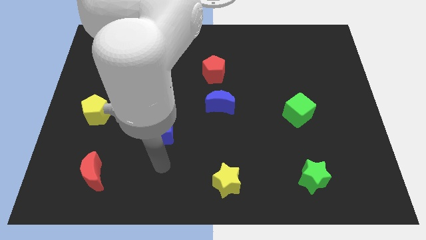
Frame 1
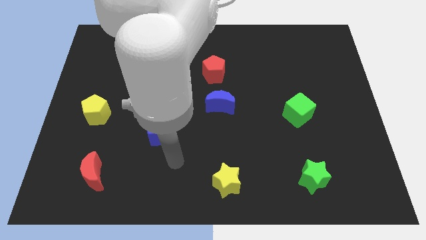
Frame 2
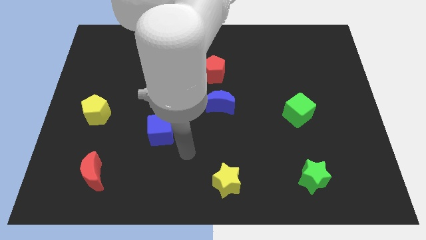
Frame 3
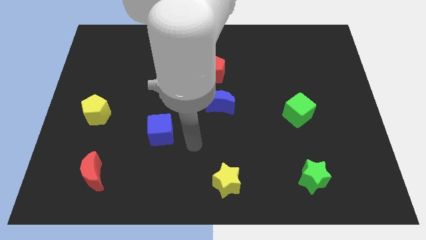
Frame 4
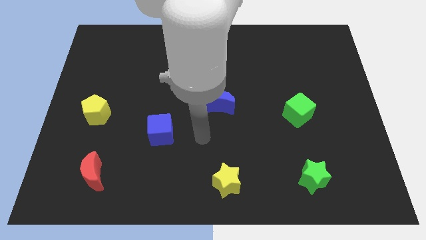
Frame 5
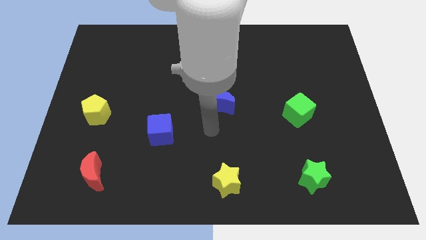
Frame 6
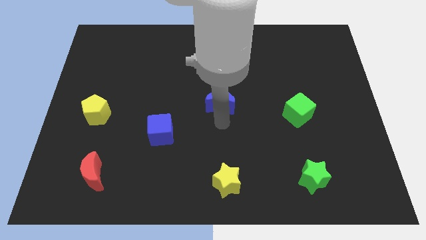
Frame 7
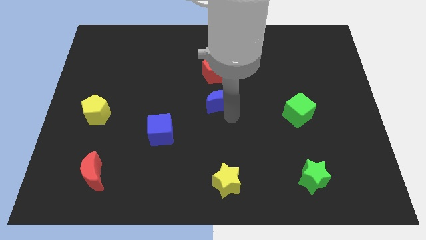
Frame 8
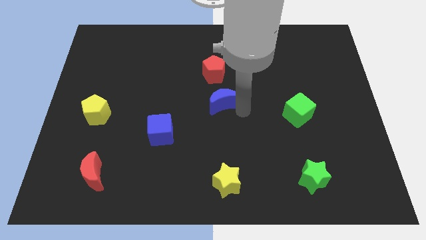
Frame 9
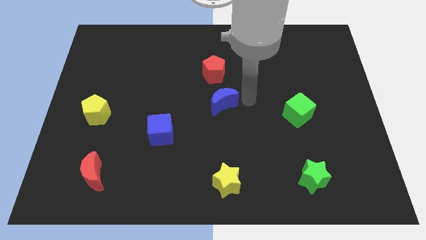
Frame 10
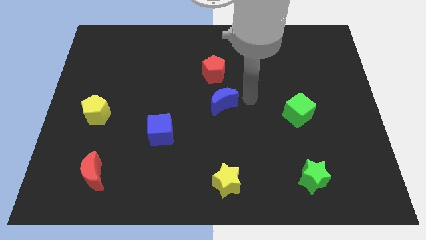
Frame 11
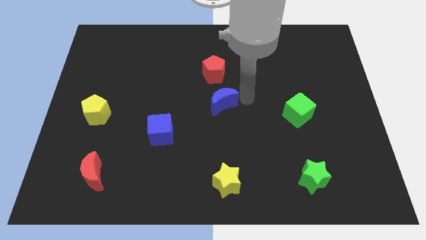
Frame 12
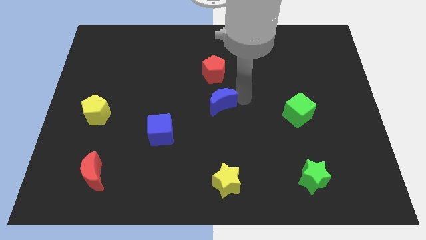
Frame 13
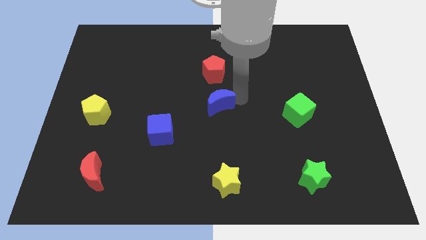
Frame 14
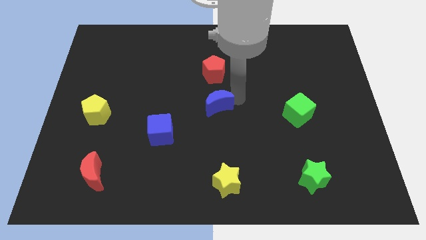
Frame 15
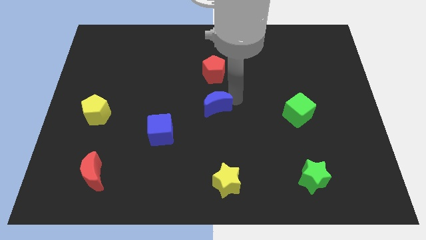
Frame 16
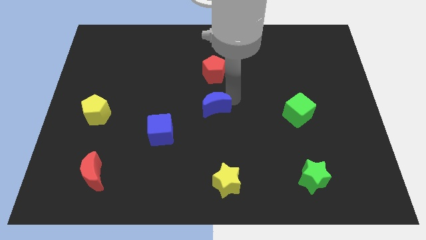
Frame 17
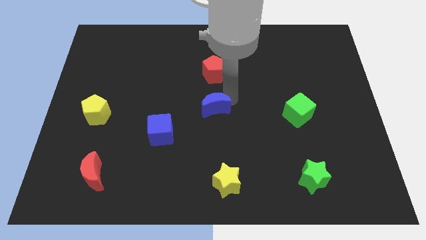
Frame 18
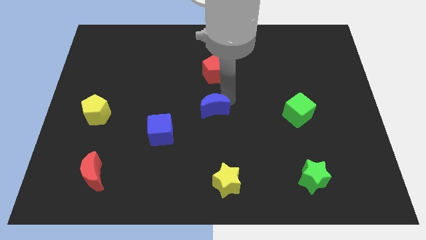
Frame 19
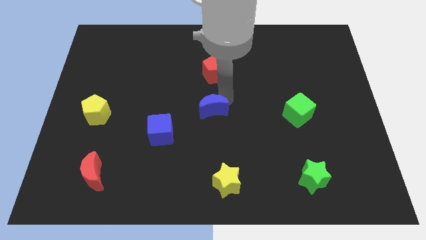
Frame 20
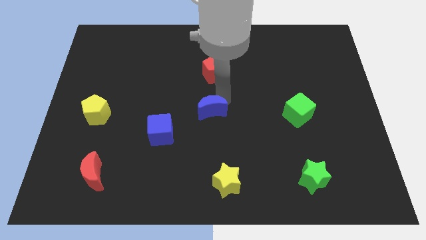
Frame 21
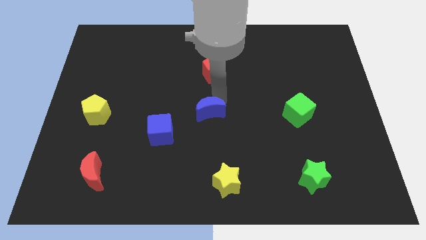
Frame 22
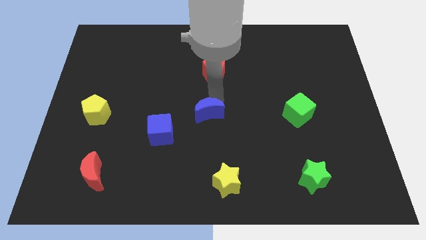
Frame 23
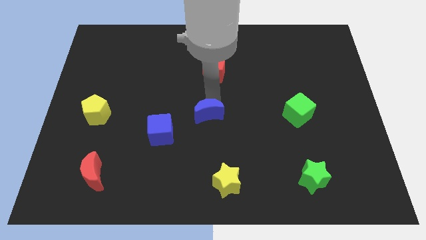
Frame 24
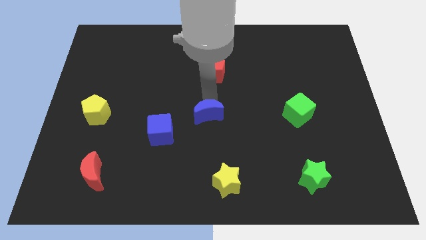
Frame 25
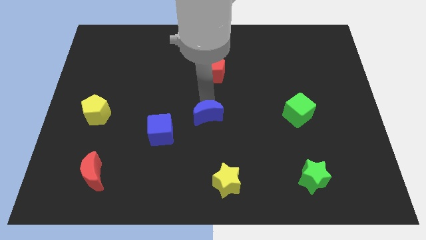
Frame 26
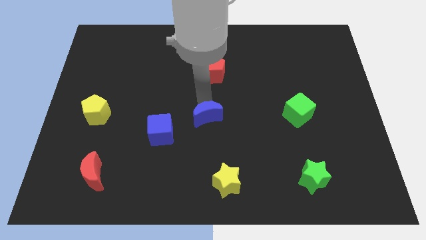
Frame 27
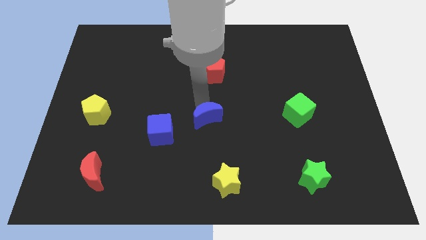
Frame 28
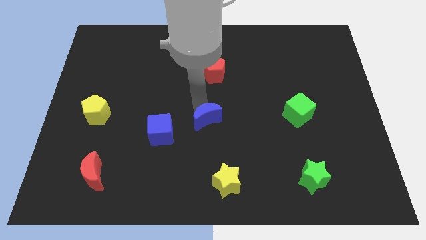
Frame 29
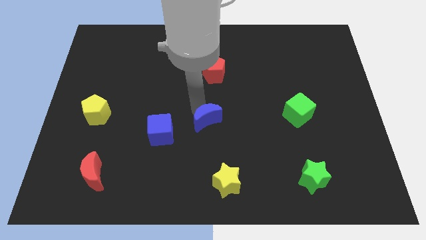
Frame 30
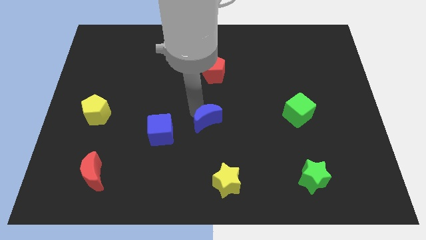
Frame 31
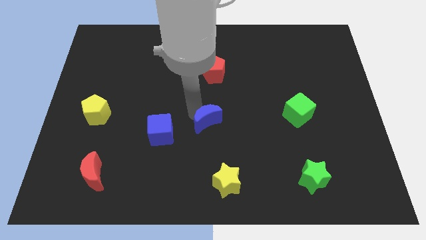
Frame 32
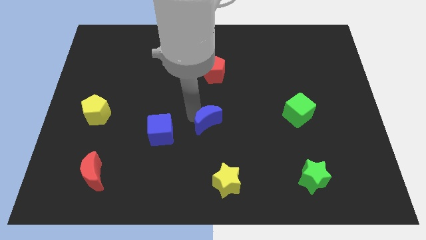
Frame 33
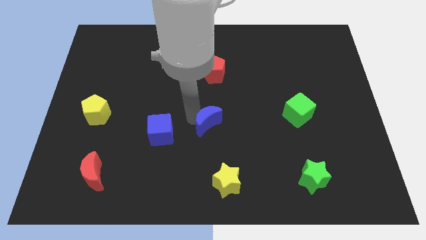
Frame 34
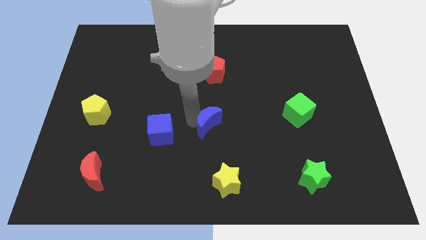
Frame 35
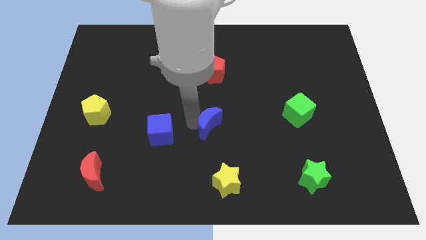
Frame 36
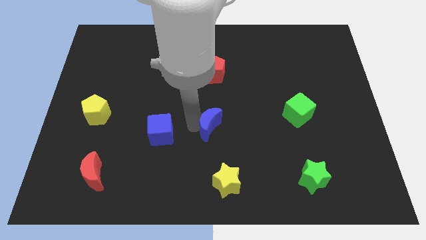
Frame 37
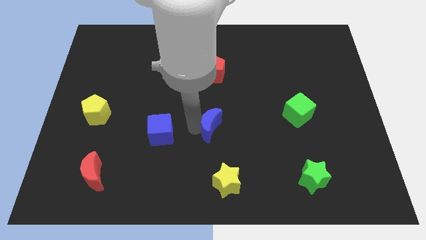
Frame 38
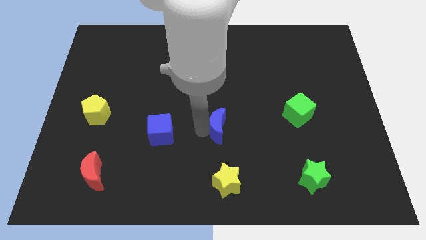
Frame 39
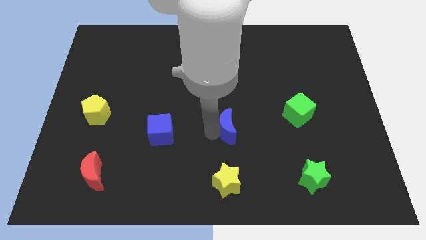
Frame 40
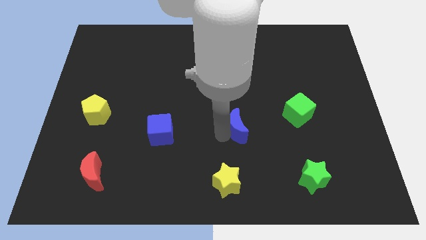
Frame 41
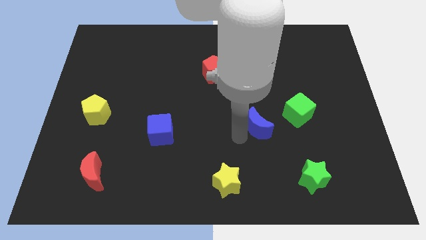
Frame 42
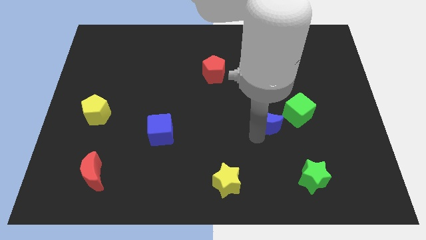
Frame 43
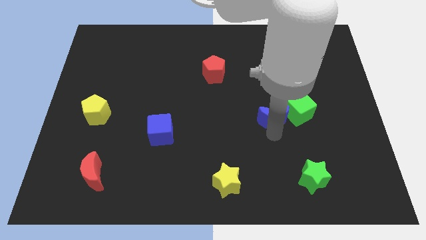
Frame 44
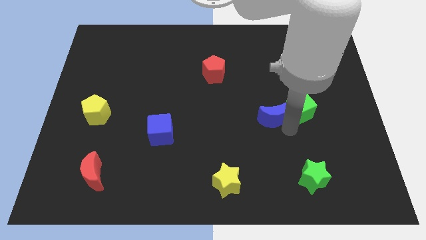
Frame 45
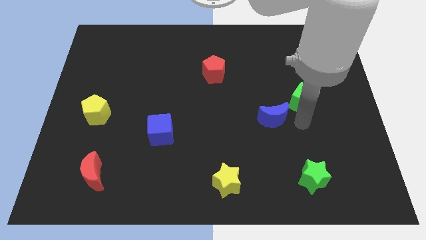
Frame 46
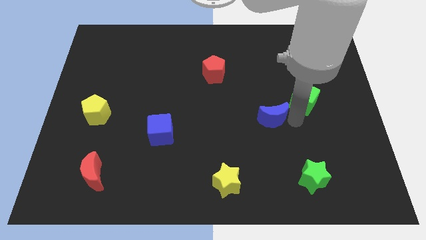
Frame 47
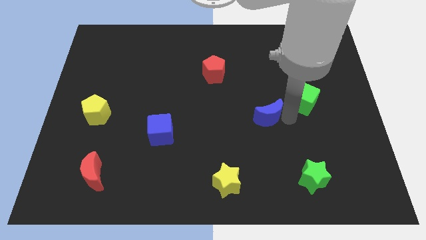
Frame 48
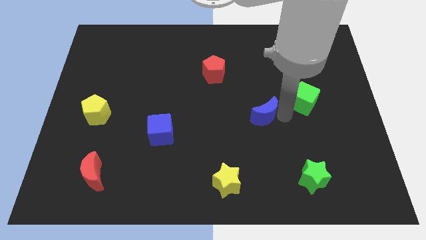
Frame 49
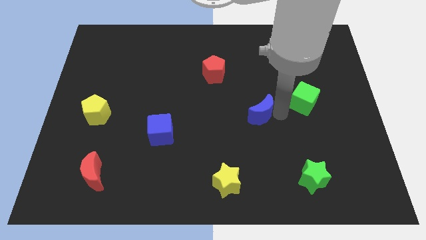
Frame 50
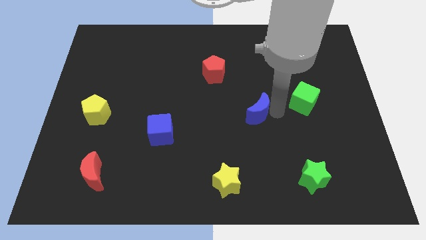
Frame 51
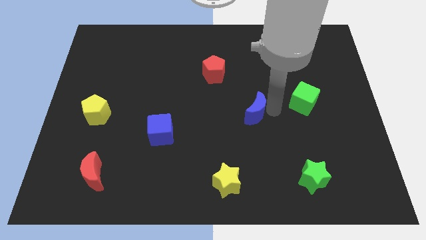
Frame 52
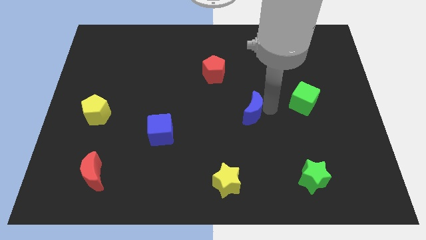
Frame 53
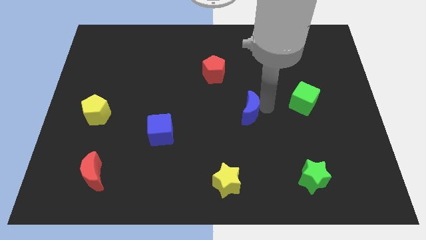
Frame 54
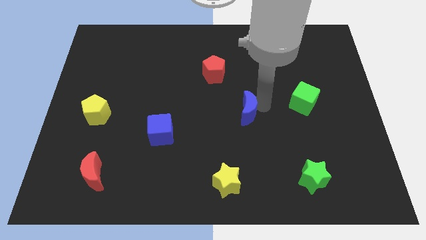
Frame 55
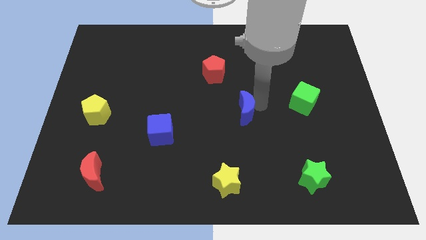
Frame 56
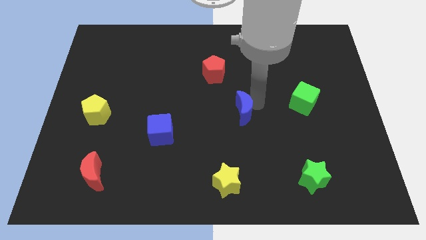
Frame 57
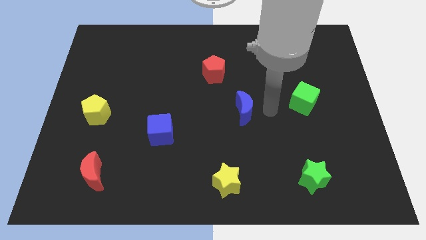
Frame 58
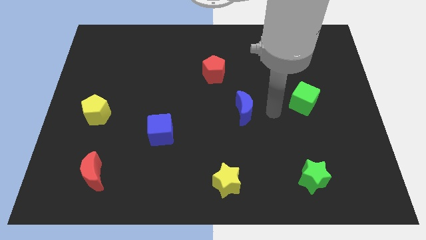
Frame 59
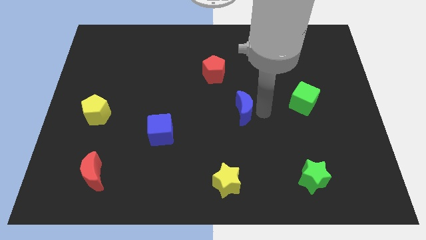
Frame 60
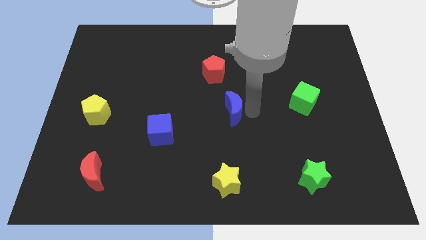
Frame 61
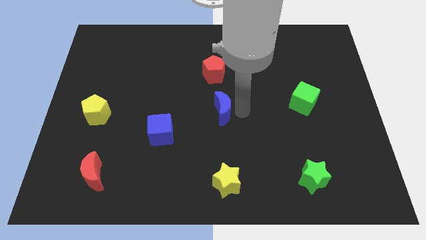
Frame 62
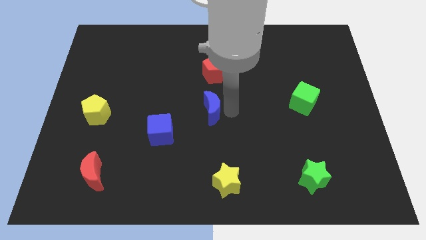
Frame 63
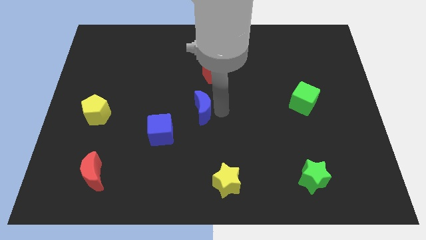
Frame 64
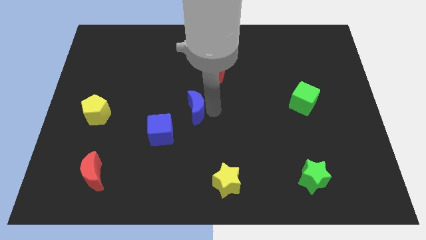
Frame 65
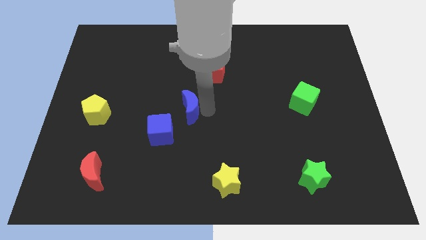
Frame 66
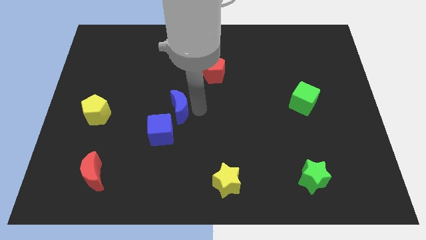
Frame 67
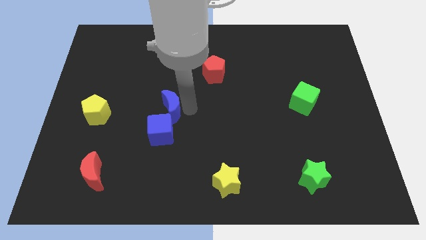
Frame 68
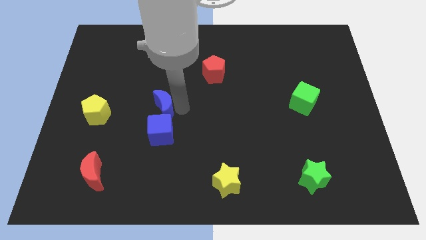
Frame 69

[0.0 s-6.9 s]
push the blue moon to the right side of the yellow pentagon
